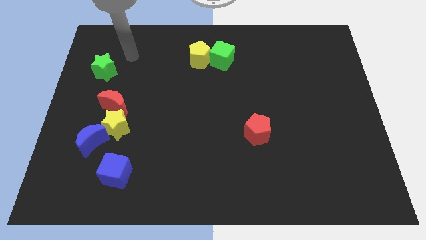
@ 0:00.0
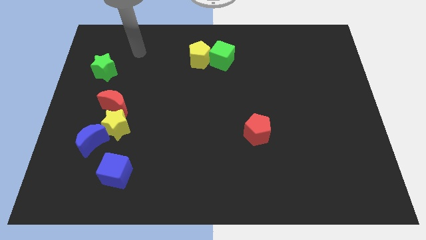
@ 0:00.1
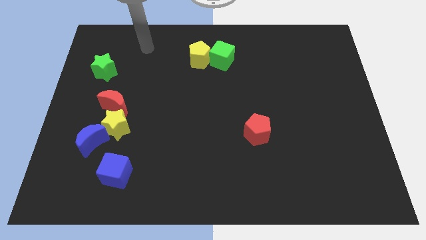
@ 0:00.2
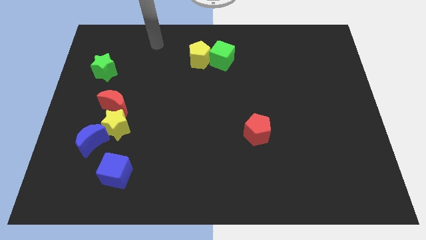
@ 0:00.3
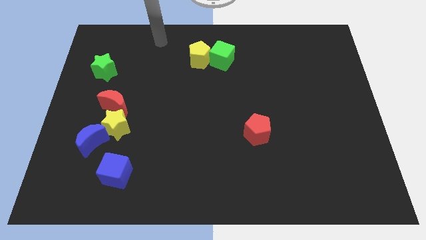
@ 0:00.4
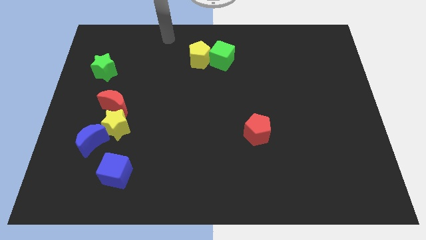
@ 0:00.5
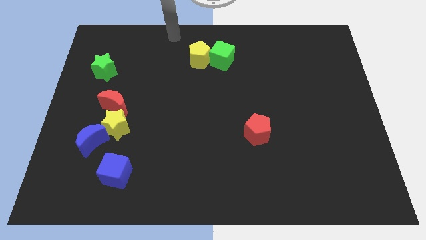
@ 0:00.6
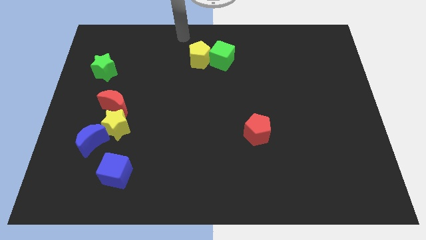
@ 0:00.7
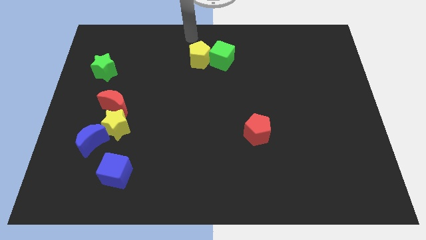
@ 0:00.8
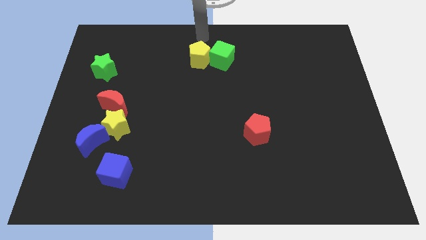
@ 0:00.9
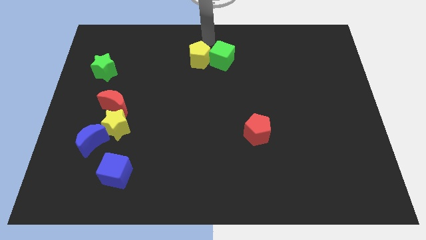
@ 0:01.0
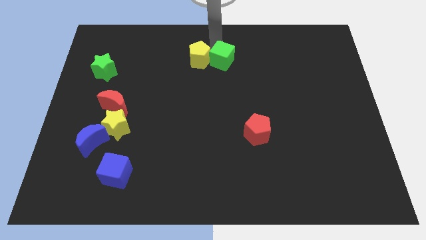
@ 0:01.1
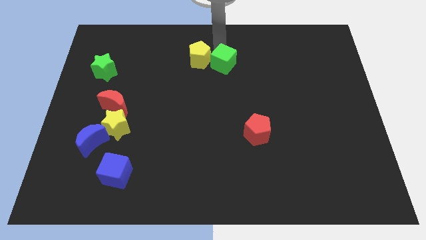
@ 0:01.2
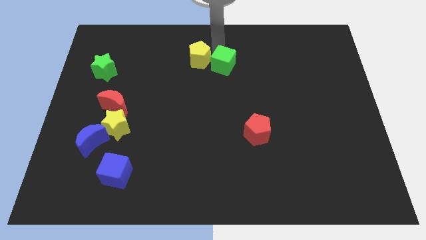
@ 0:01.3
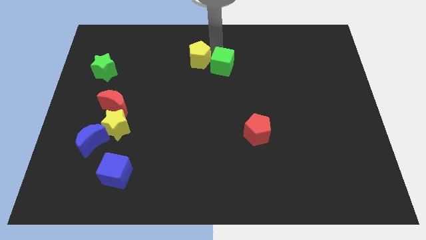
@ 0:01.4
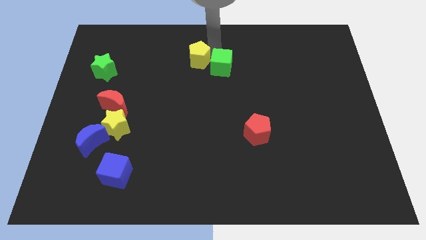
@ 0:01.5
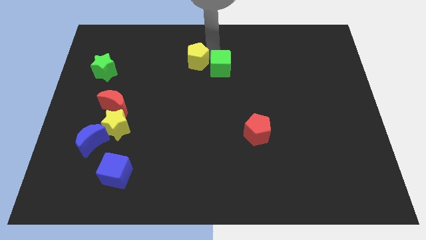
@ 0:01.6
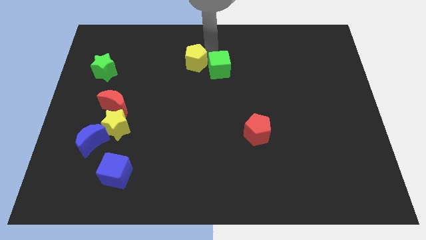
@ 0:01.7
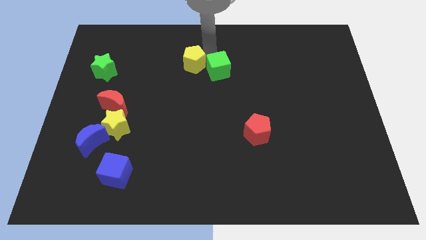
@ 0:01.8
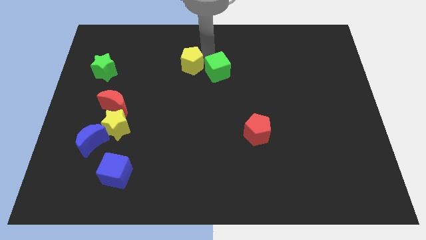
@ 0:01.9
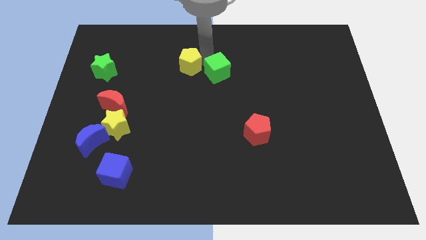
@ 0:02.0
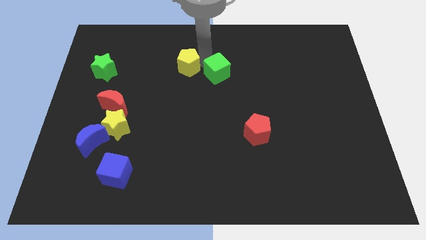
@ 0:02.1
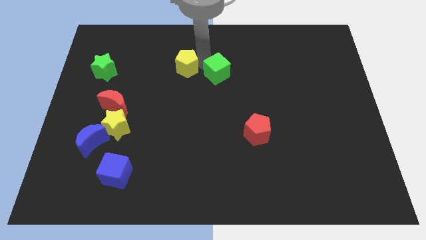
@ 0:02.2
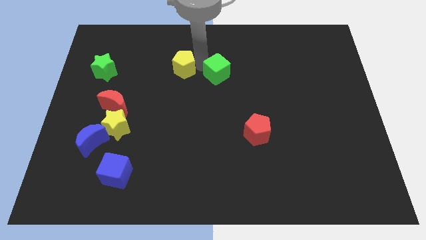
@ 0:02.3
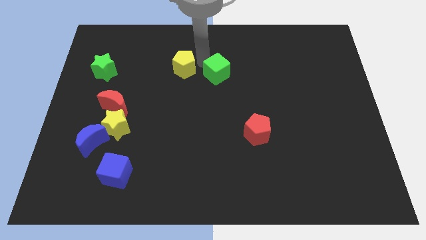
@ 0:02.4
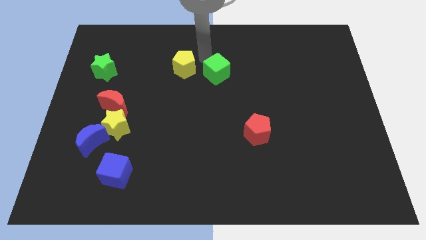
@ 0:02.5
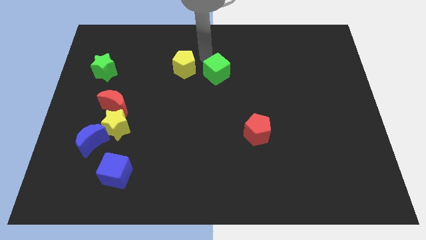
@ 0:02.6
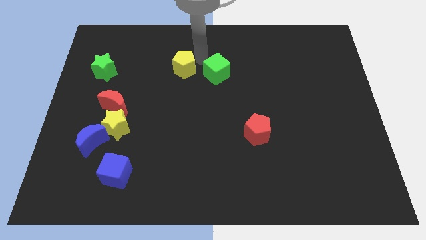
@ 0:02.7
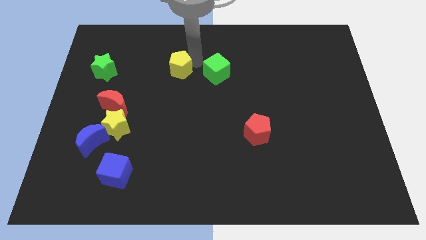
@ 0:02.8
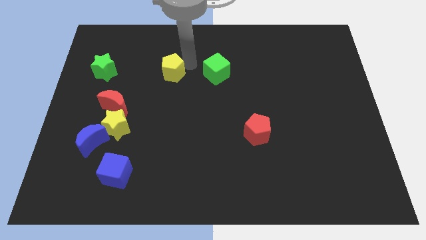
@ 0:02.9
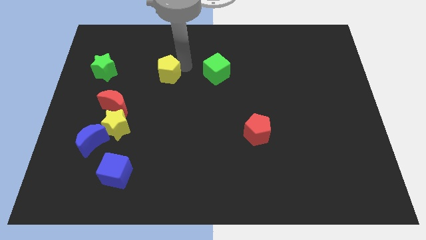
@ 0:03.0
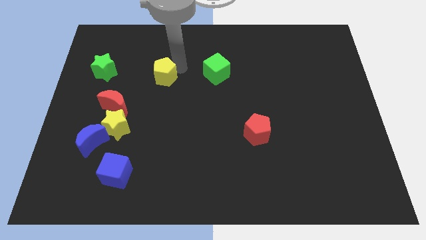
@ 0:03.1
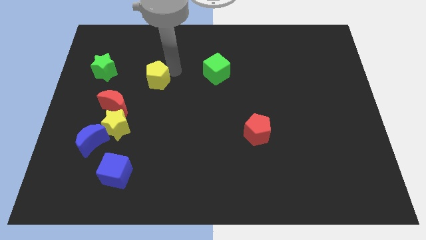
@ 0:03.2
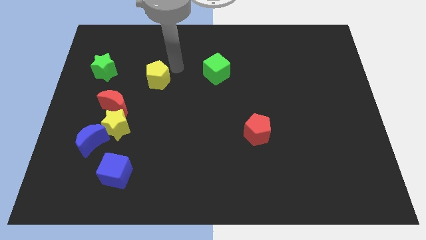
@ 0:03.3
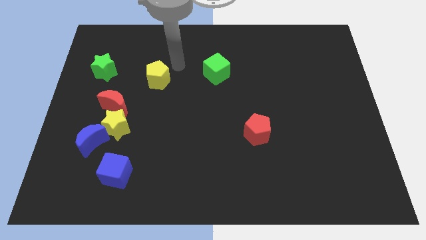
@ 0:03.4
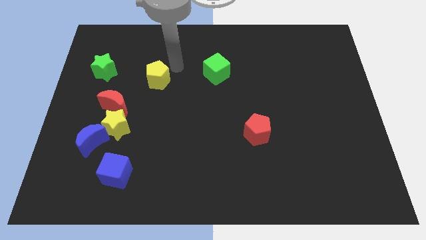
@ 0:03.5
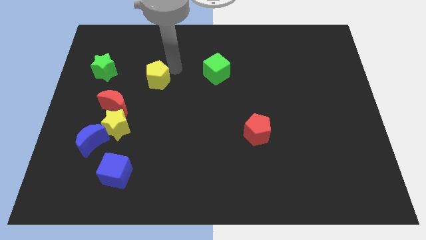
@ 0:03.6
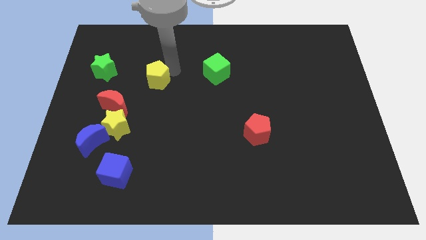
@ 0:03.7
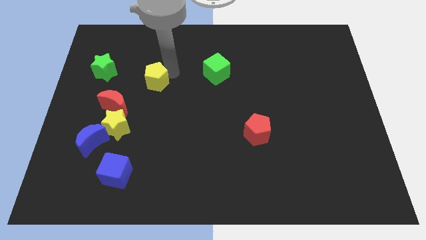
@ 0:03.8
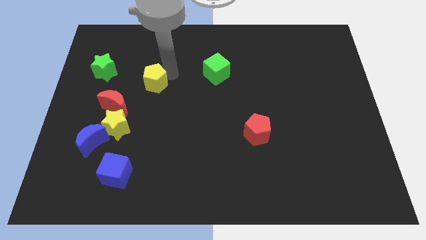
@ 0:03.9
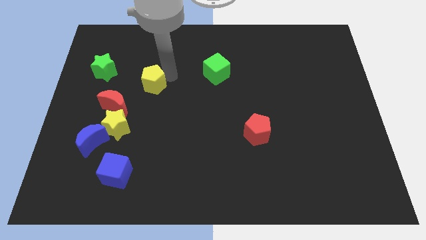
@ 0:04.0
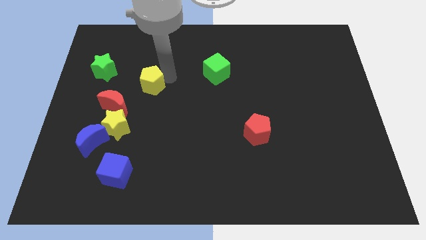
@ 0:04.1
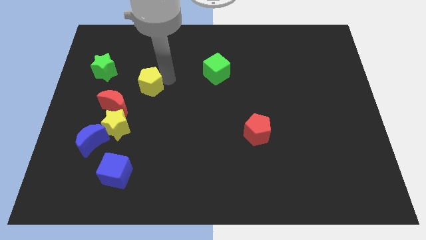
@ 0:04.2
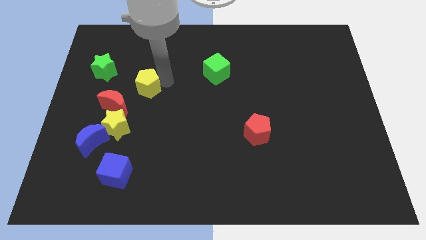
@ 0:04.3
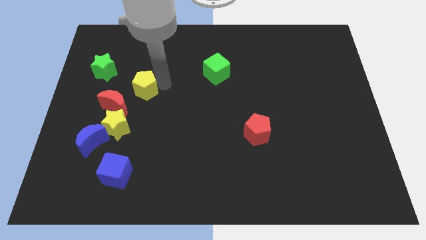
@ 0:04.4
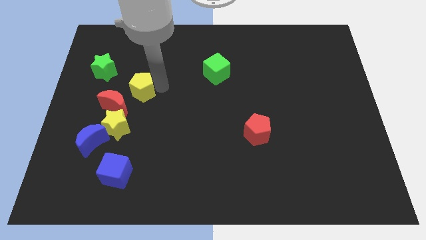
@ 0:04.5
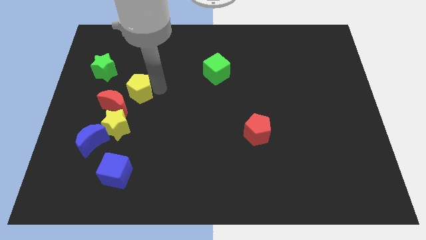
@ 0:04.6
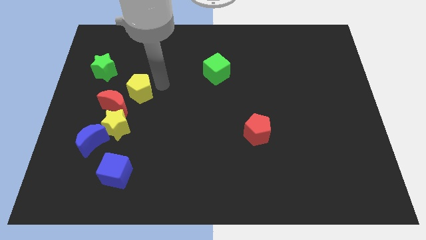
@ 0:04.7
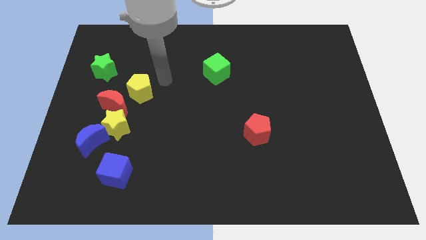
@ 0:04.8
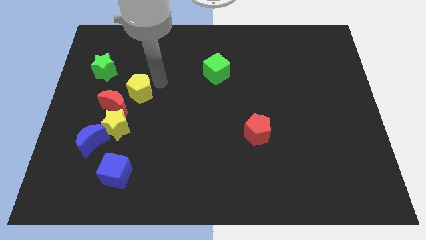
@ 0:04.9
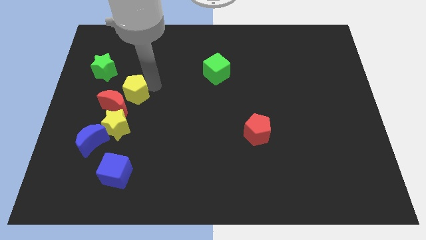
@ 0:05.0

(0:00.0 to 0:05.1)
move the yellow pentagon next to the red moon

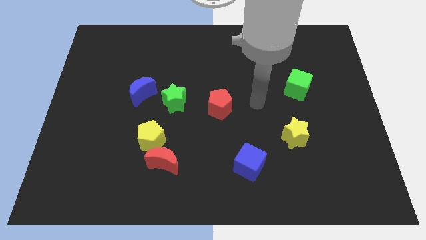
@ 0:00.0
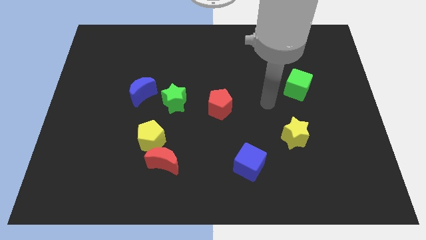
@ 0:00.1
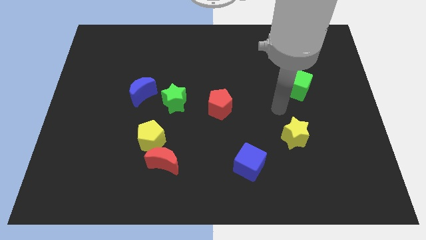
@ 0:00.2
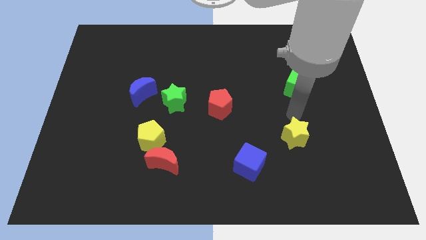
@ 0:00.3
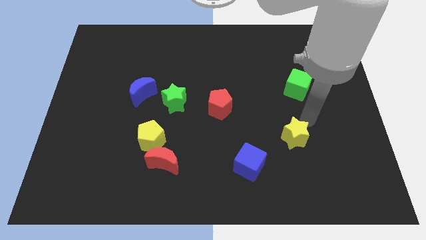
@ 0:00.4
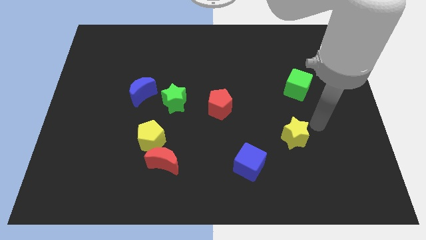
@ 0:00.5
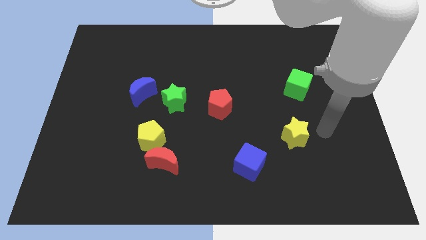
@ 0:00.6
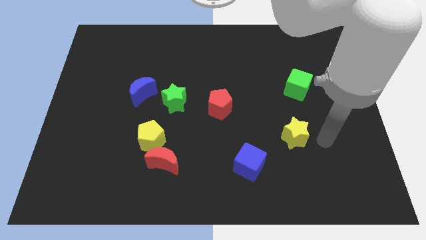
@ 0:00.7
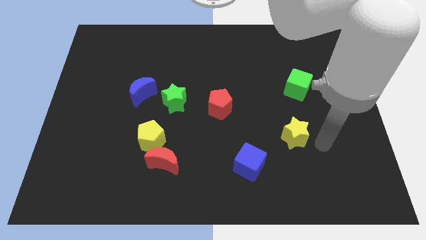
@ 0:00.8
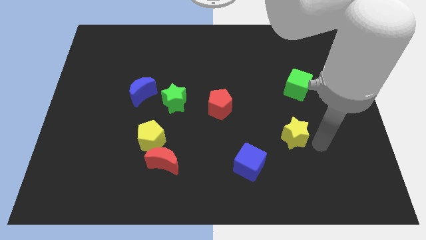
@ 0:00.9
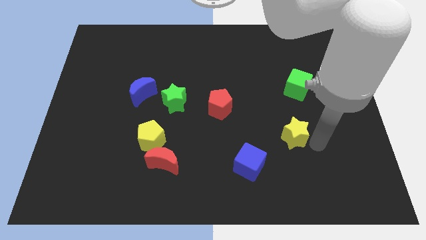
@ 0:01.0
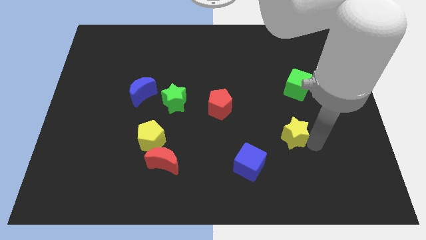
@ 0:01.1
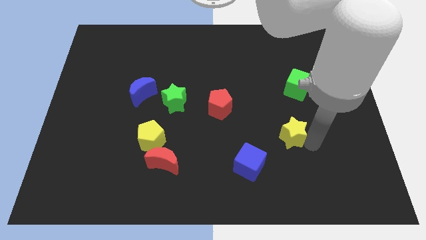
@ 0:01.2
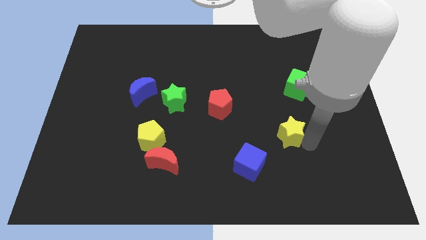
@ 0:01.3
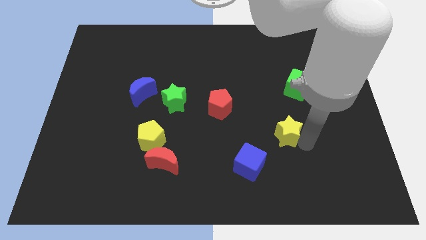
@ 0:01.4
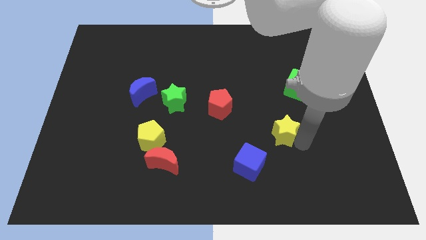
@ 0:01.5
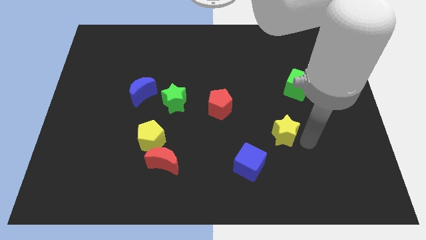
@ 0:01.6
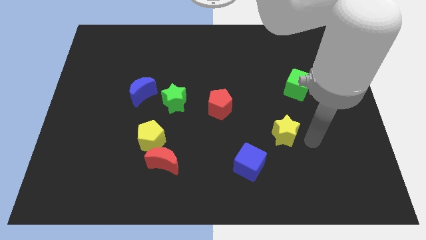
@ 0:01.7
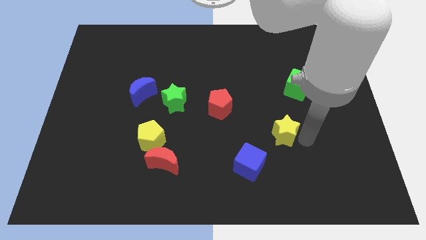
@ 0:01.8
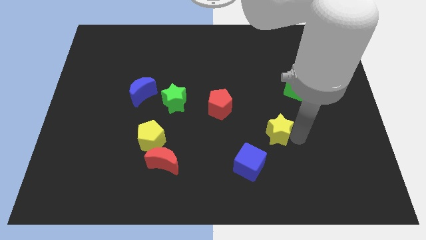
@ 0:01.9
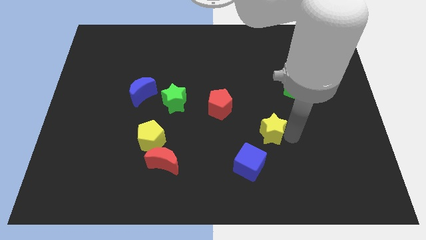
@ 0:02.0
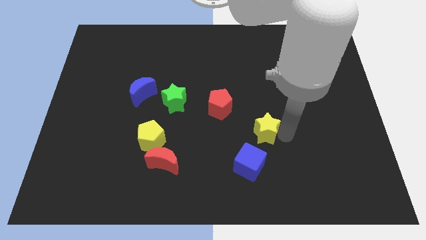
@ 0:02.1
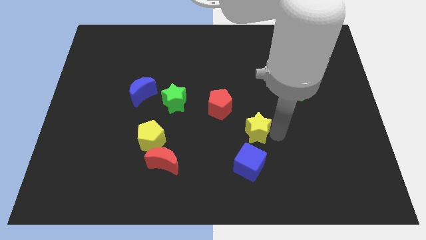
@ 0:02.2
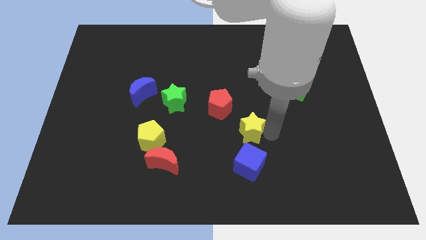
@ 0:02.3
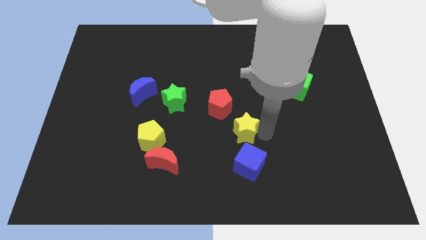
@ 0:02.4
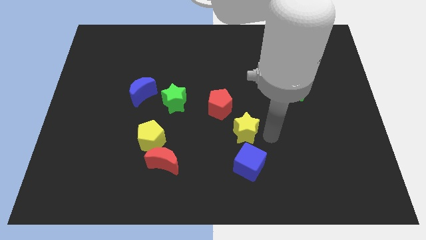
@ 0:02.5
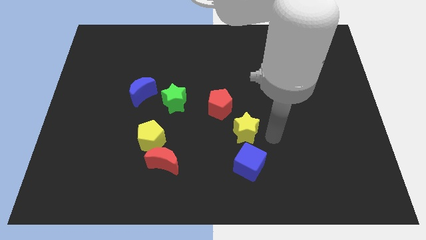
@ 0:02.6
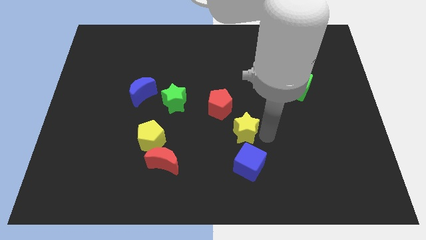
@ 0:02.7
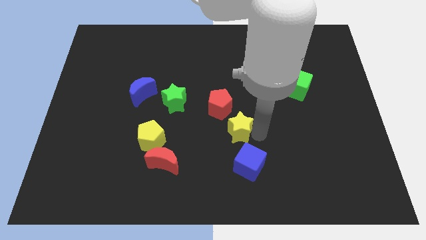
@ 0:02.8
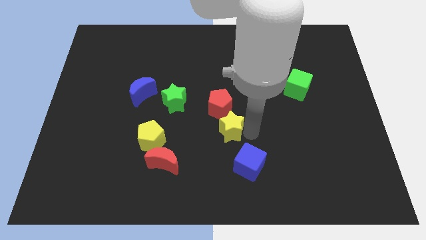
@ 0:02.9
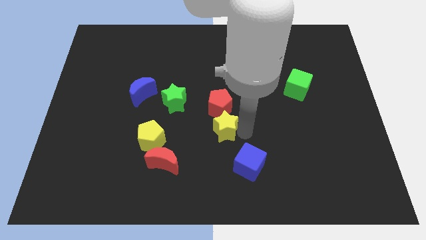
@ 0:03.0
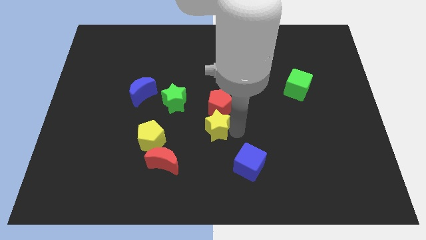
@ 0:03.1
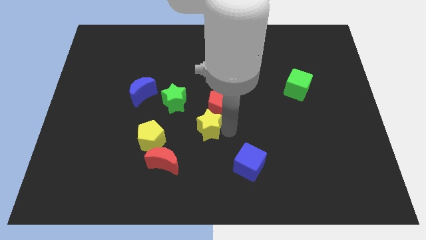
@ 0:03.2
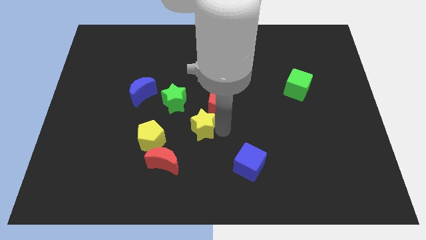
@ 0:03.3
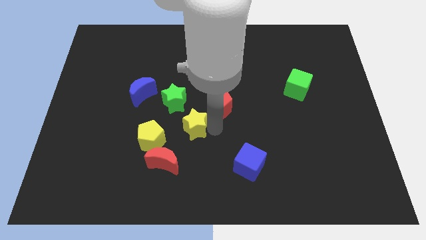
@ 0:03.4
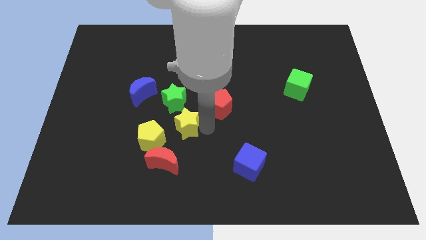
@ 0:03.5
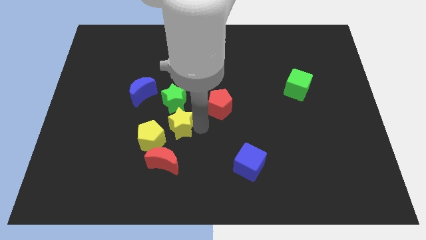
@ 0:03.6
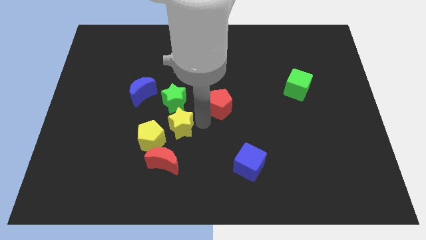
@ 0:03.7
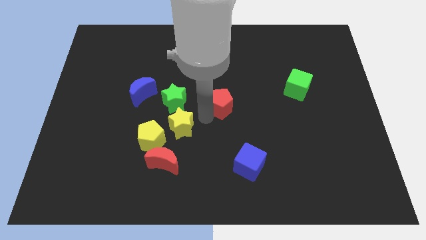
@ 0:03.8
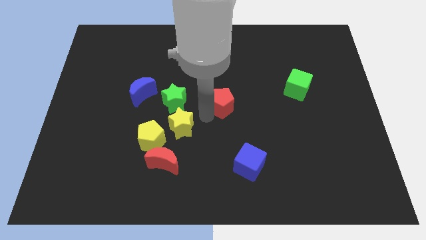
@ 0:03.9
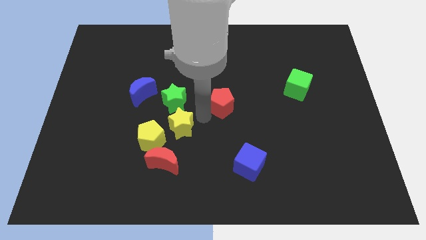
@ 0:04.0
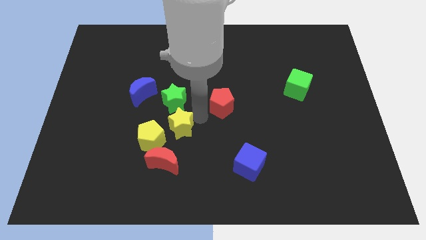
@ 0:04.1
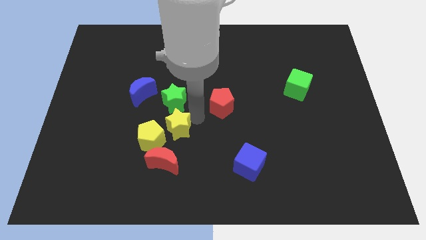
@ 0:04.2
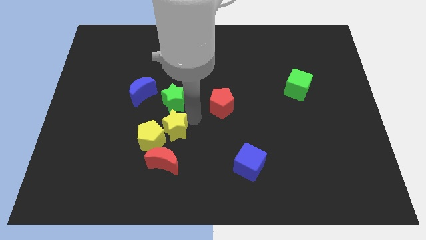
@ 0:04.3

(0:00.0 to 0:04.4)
move the yellow star towards the yellow pentagon
